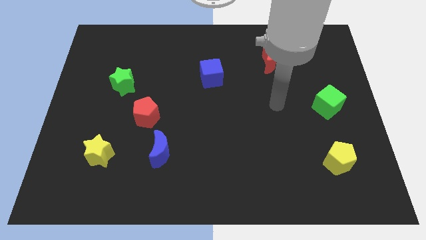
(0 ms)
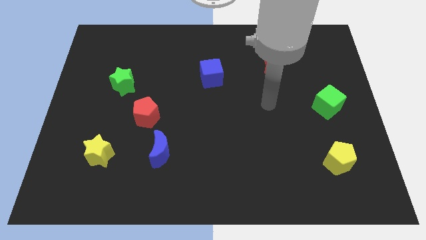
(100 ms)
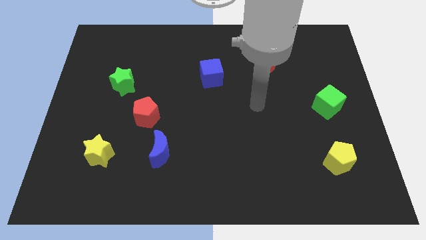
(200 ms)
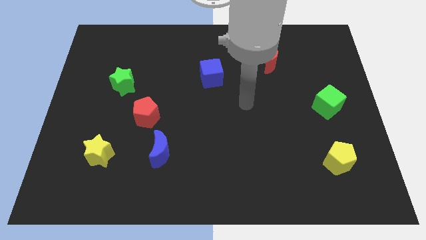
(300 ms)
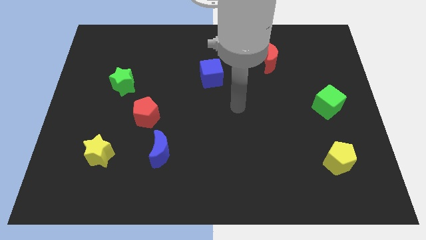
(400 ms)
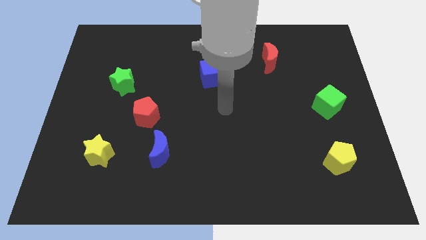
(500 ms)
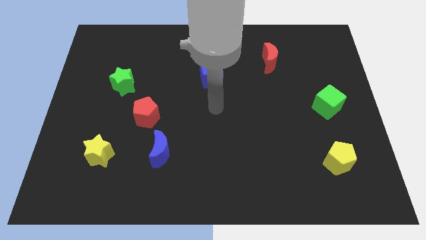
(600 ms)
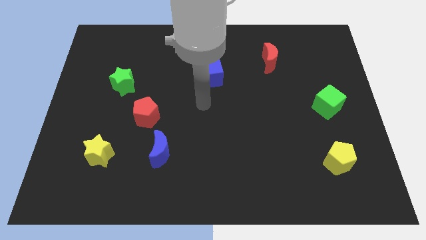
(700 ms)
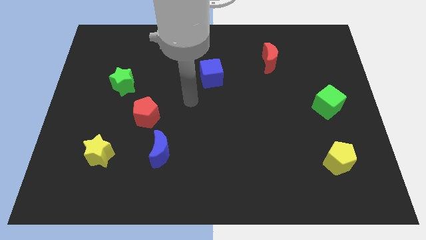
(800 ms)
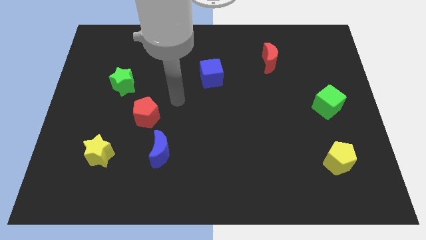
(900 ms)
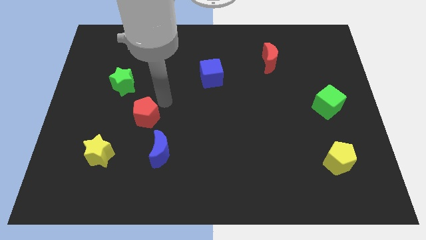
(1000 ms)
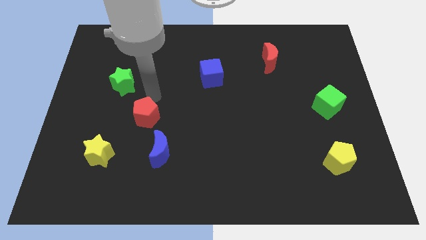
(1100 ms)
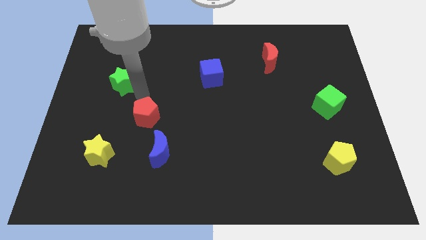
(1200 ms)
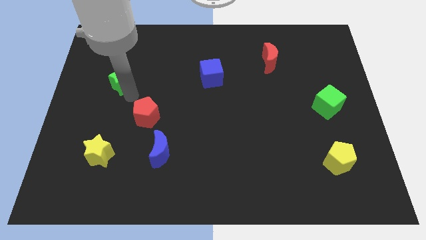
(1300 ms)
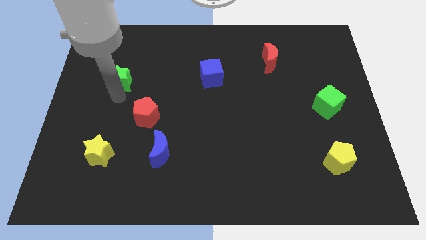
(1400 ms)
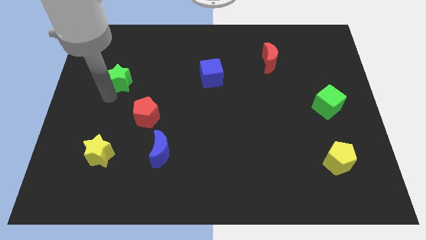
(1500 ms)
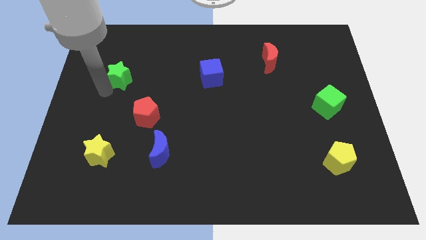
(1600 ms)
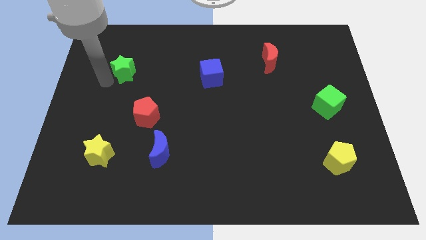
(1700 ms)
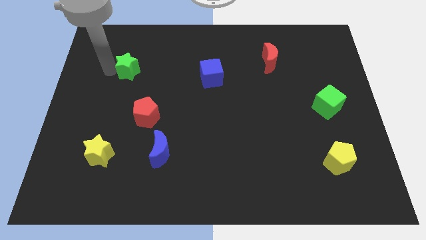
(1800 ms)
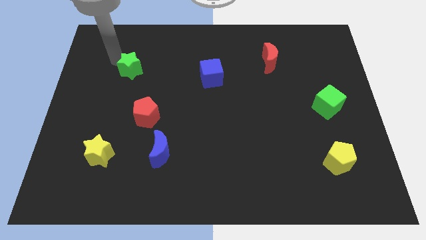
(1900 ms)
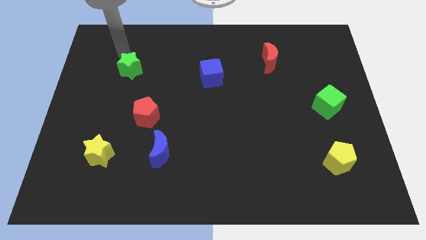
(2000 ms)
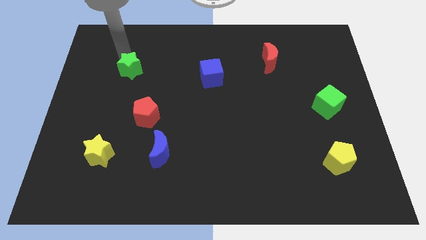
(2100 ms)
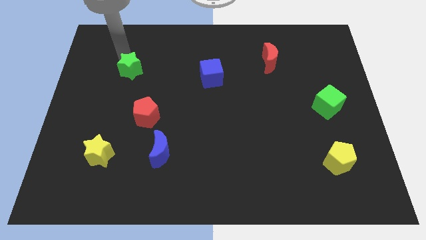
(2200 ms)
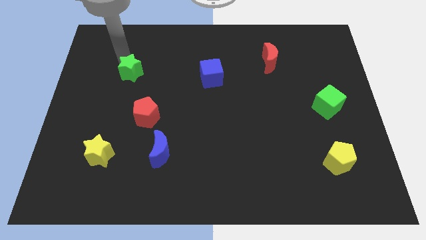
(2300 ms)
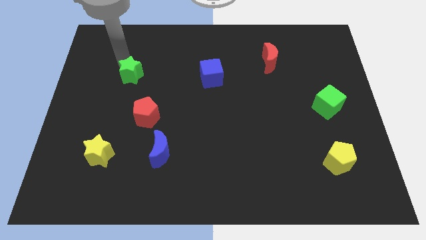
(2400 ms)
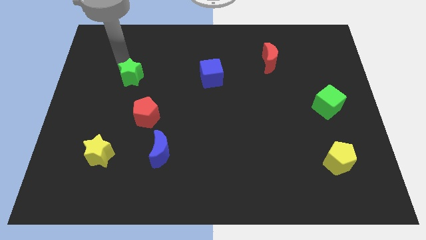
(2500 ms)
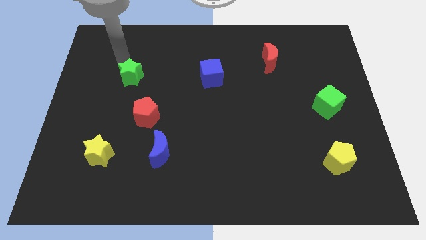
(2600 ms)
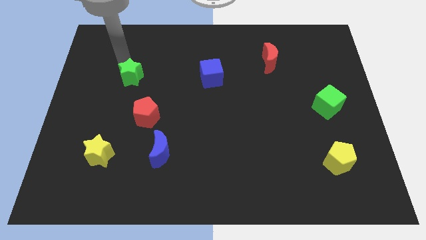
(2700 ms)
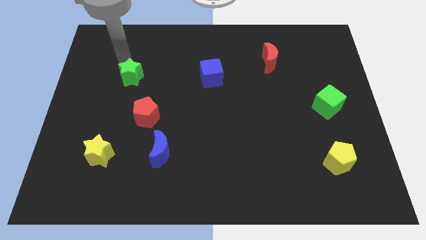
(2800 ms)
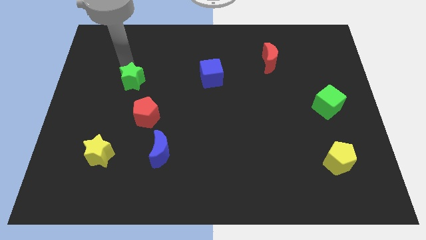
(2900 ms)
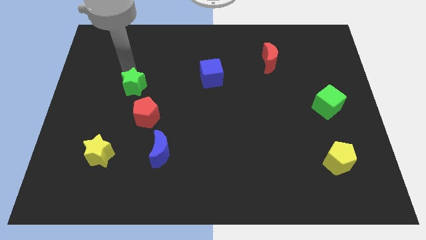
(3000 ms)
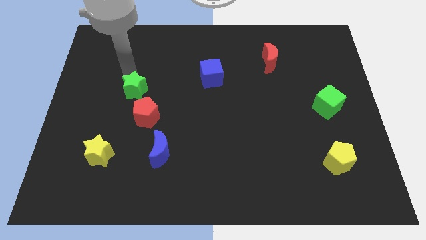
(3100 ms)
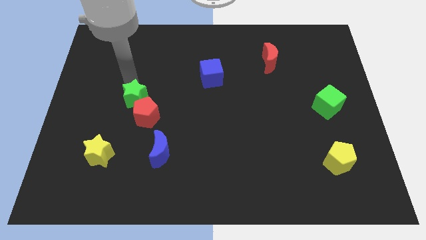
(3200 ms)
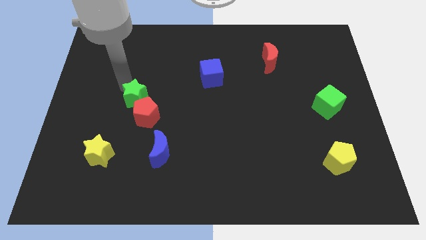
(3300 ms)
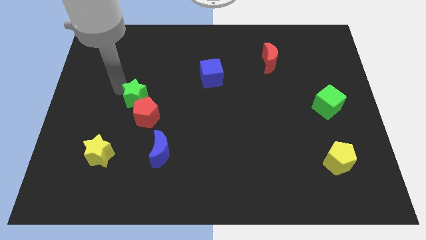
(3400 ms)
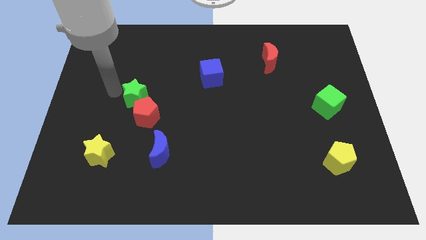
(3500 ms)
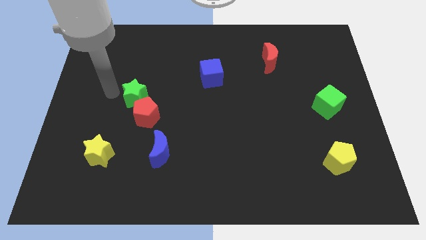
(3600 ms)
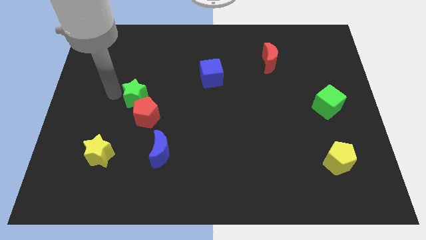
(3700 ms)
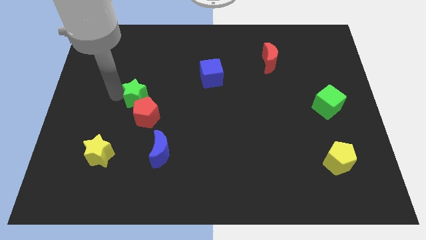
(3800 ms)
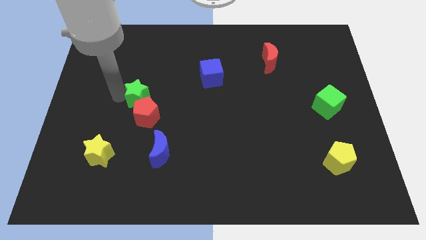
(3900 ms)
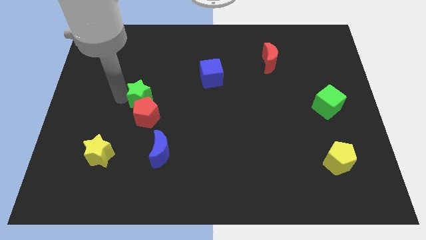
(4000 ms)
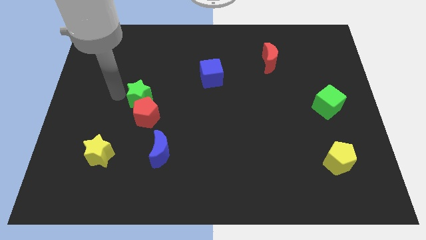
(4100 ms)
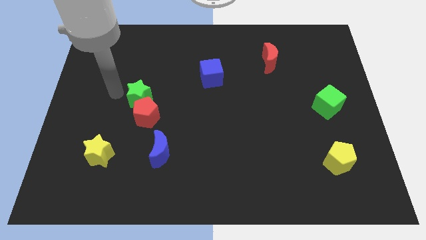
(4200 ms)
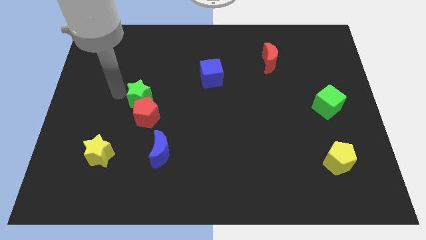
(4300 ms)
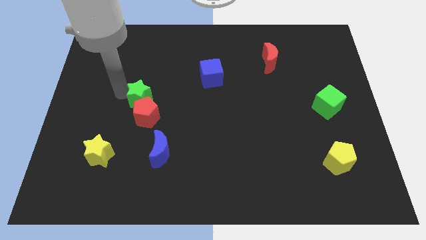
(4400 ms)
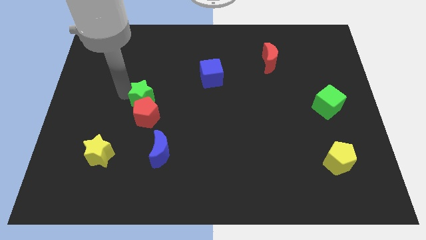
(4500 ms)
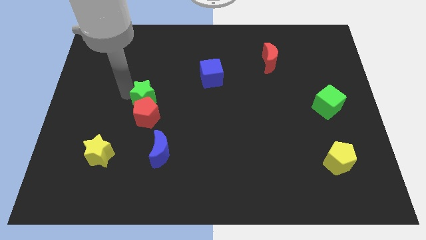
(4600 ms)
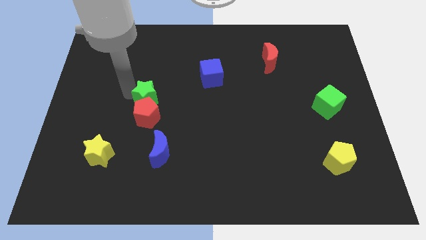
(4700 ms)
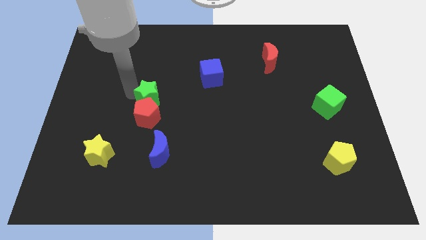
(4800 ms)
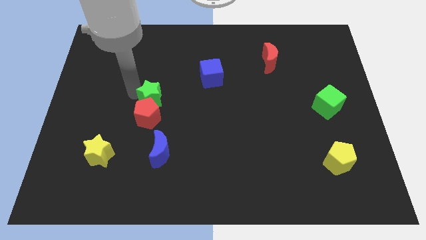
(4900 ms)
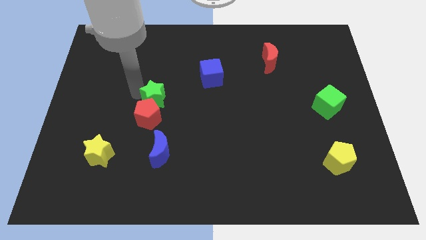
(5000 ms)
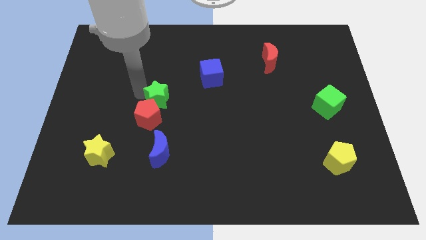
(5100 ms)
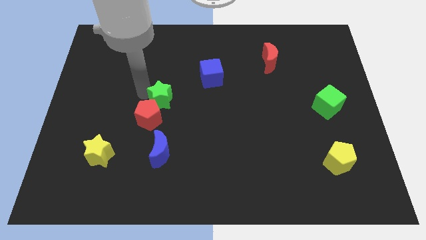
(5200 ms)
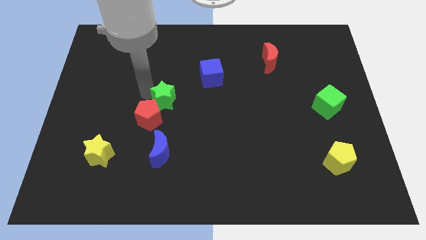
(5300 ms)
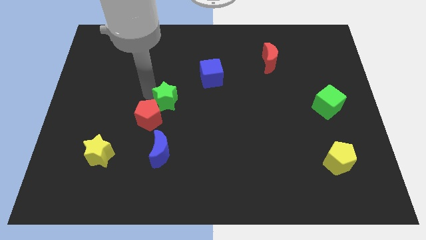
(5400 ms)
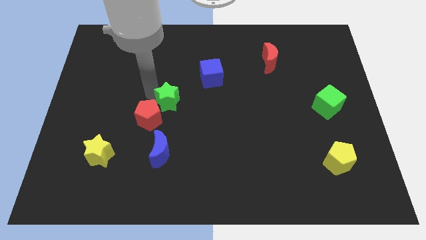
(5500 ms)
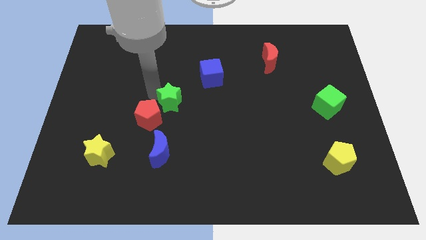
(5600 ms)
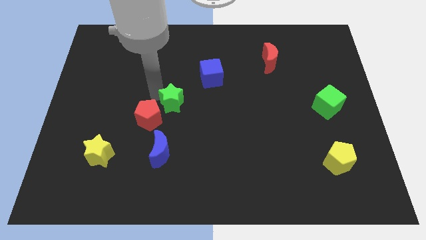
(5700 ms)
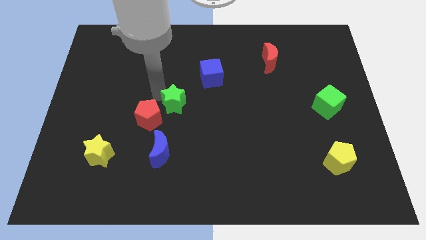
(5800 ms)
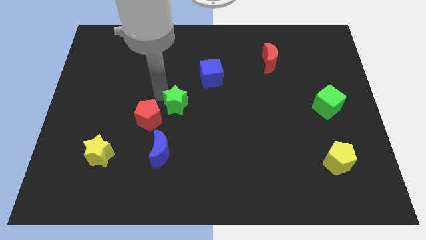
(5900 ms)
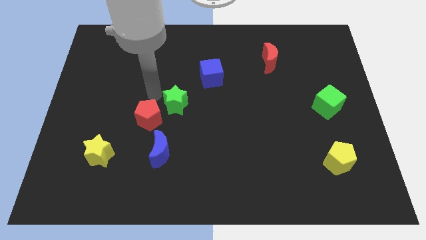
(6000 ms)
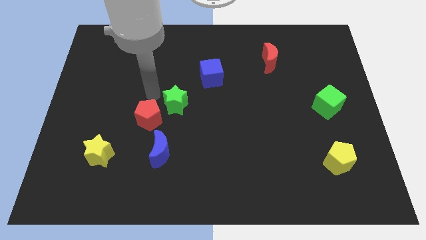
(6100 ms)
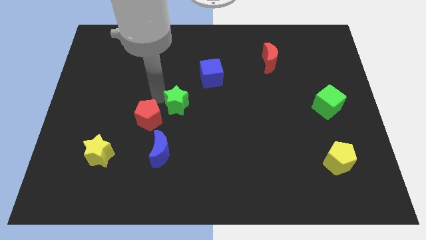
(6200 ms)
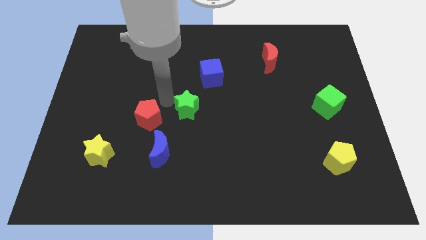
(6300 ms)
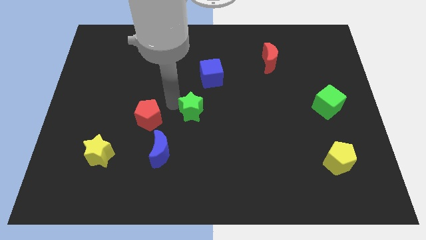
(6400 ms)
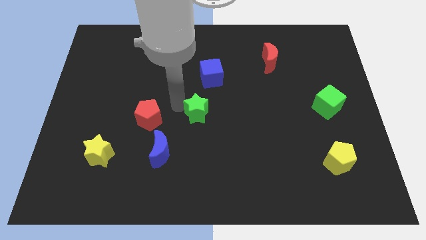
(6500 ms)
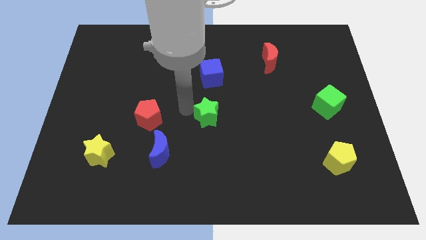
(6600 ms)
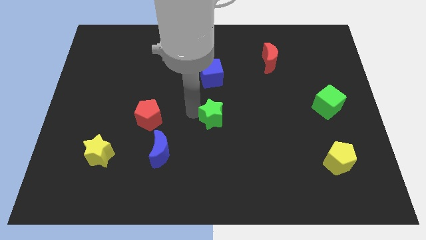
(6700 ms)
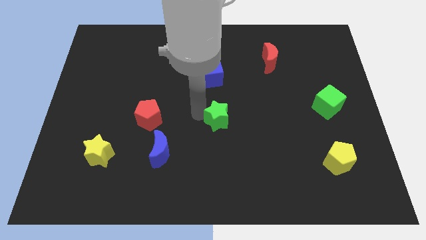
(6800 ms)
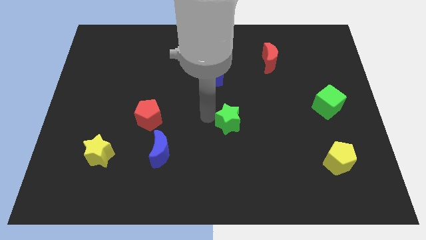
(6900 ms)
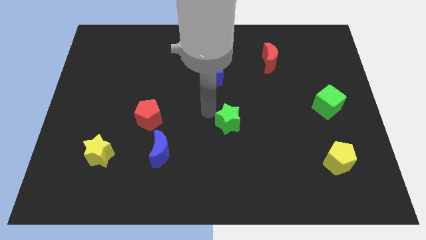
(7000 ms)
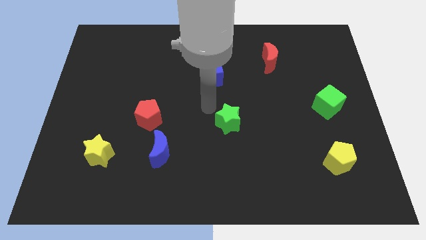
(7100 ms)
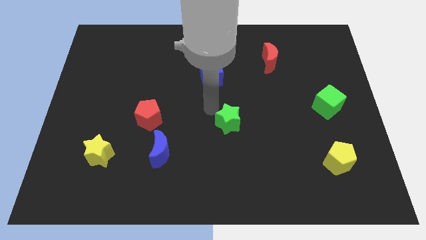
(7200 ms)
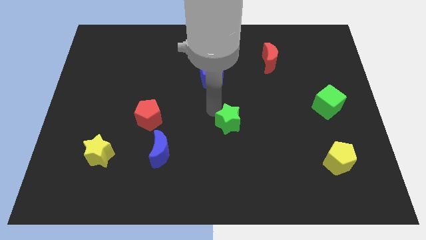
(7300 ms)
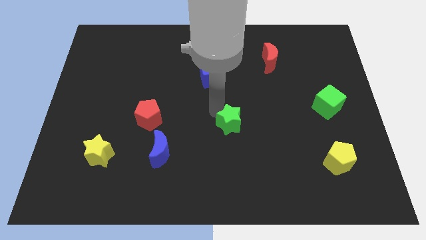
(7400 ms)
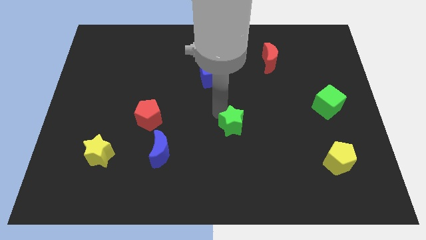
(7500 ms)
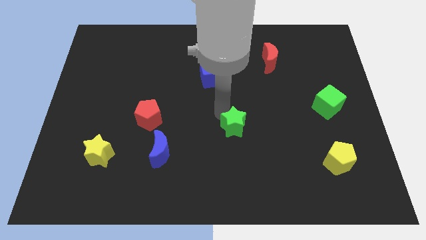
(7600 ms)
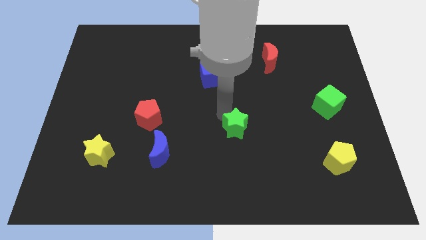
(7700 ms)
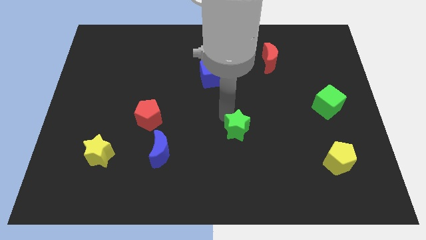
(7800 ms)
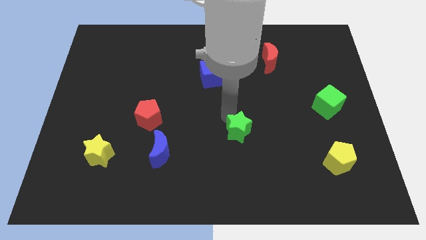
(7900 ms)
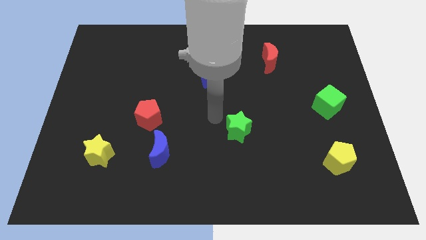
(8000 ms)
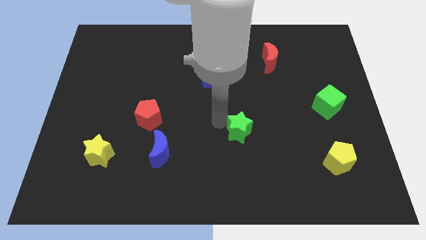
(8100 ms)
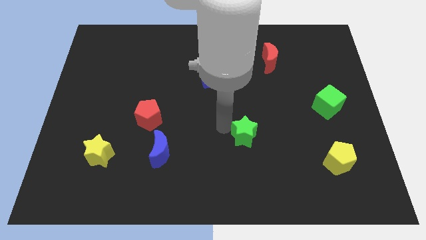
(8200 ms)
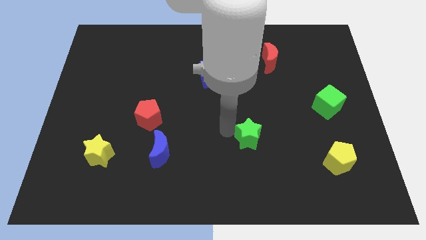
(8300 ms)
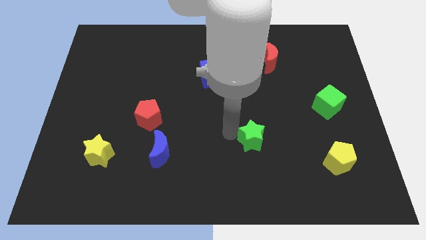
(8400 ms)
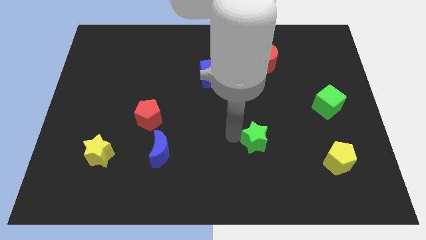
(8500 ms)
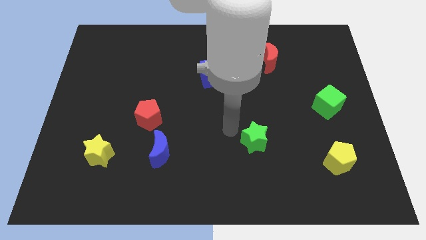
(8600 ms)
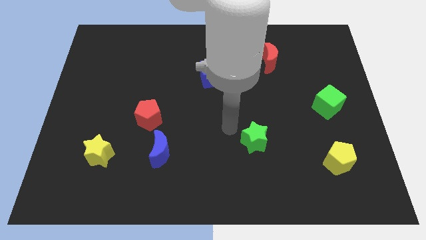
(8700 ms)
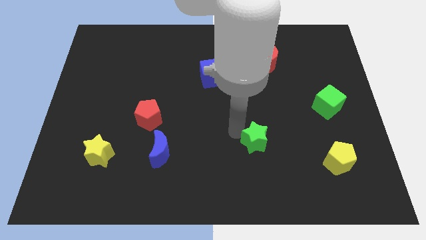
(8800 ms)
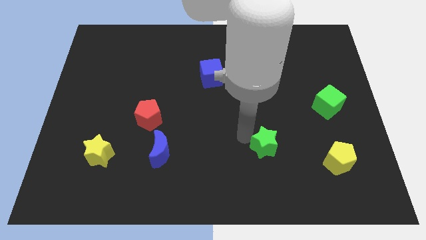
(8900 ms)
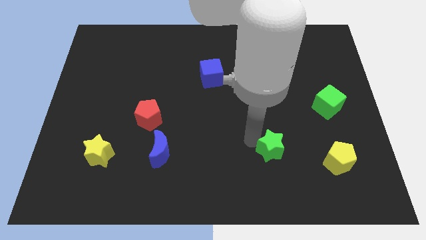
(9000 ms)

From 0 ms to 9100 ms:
slide the green star to the left side of the yellow pentagon
